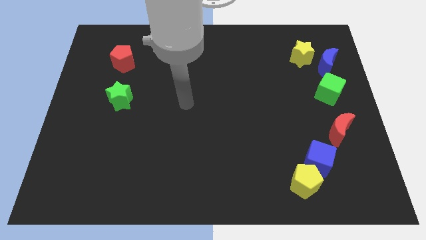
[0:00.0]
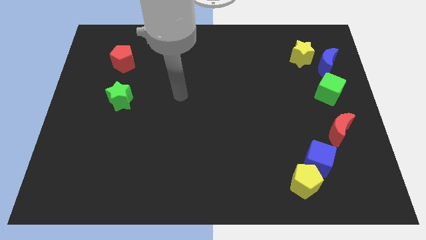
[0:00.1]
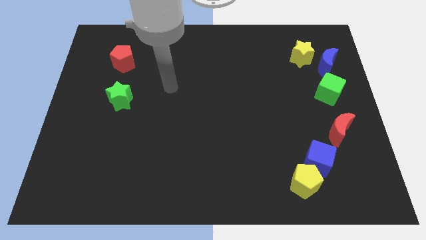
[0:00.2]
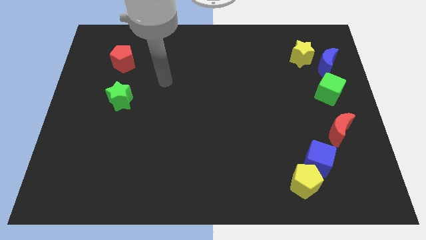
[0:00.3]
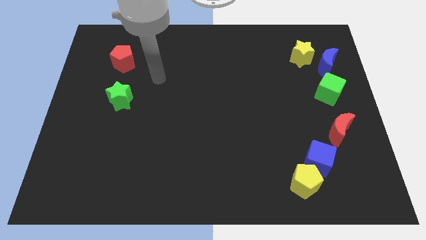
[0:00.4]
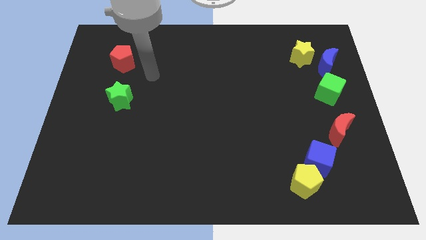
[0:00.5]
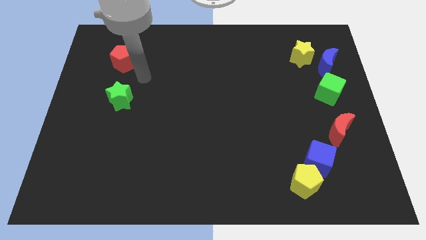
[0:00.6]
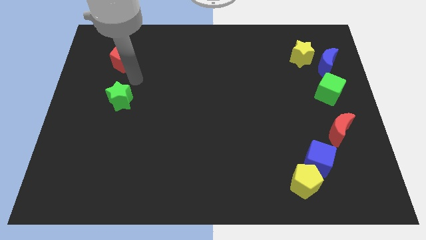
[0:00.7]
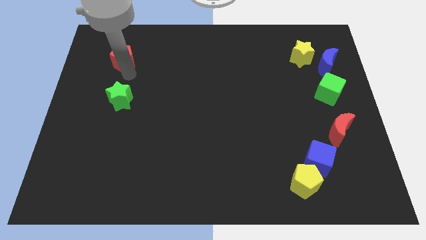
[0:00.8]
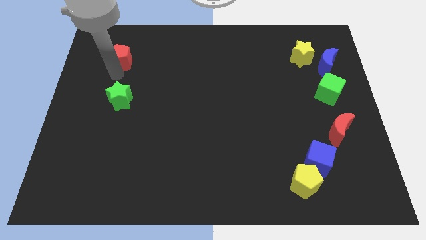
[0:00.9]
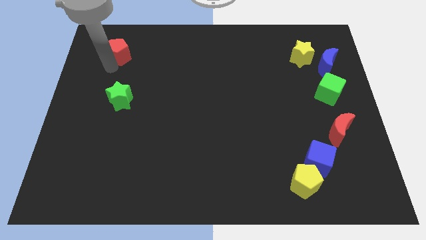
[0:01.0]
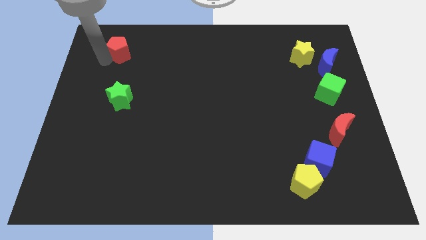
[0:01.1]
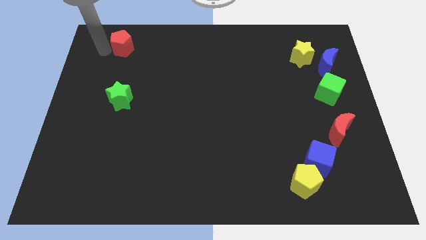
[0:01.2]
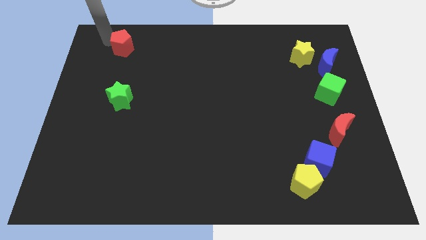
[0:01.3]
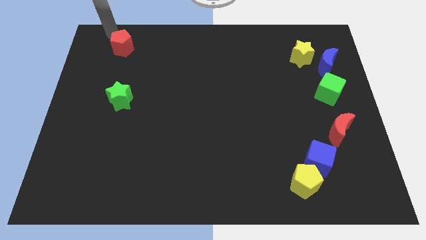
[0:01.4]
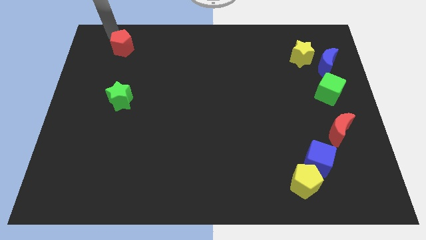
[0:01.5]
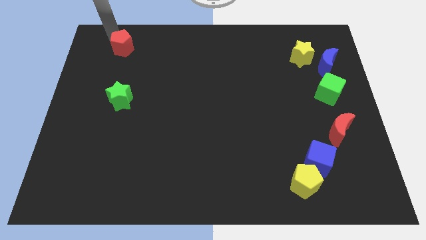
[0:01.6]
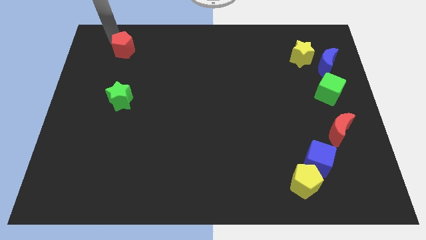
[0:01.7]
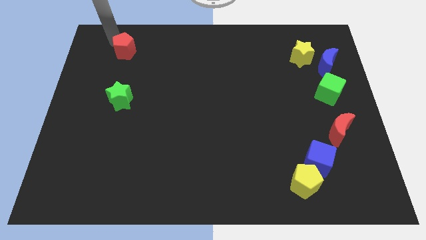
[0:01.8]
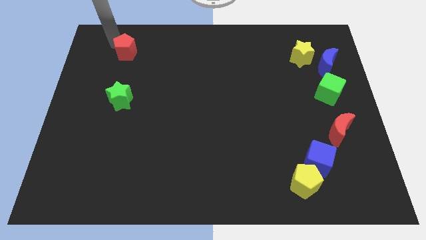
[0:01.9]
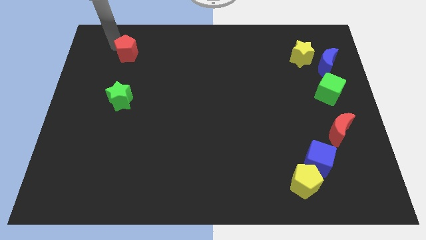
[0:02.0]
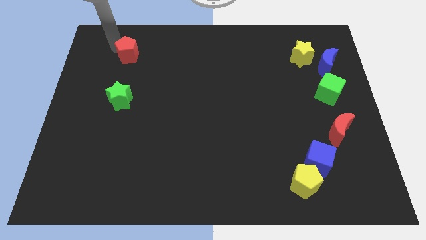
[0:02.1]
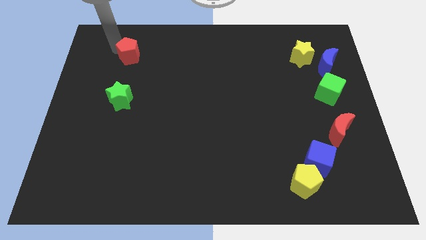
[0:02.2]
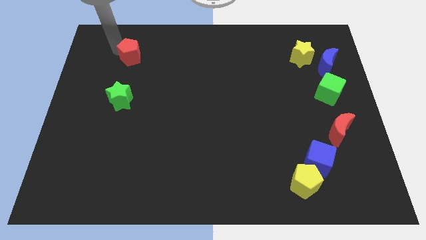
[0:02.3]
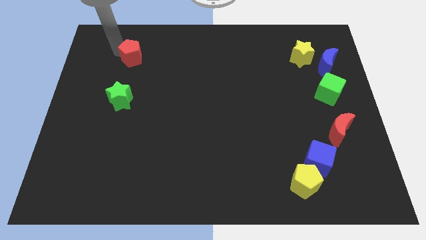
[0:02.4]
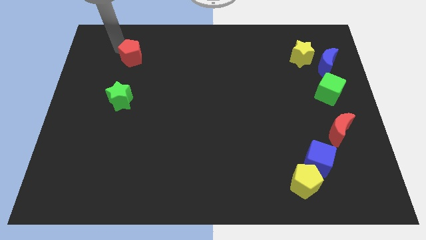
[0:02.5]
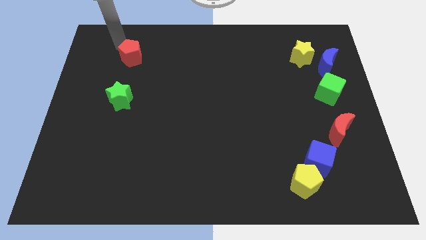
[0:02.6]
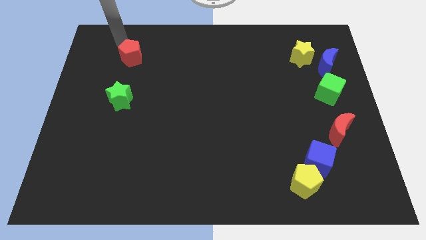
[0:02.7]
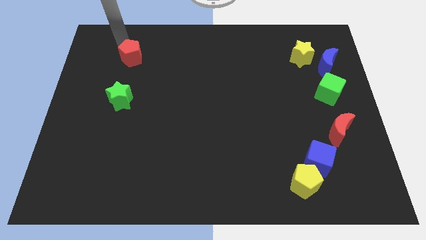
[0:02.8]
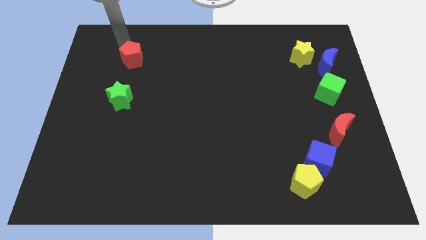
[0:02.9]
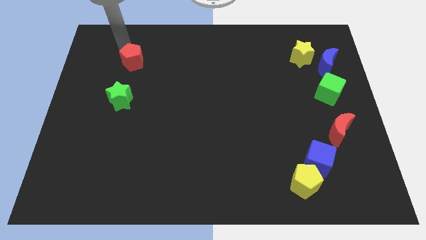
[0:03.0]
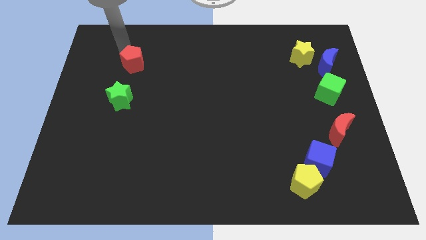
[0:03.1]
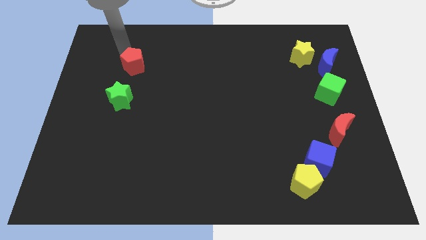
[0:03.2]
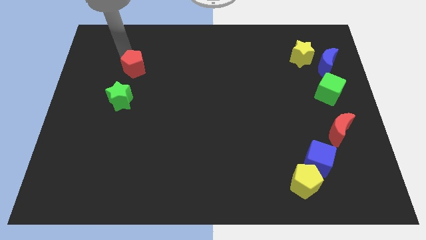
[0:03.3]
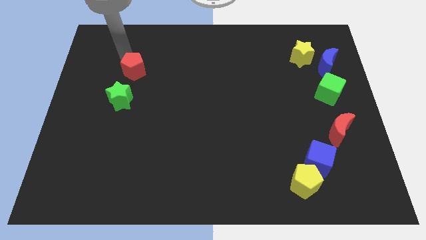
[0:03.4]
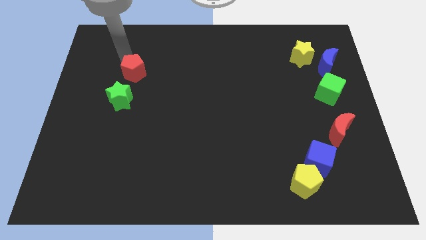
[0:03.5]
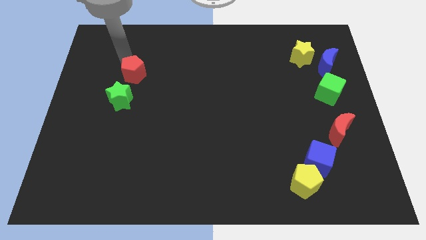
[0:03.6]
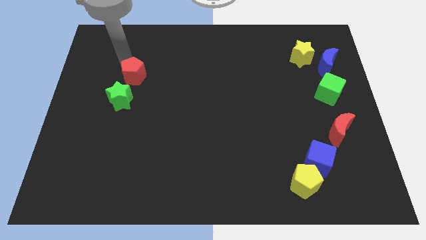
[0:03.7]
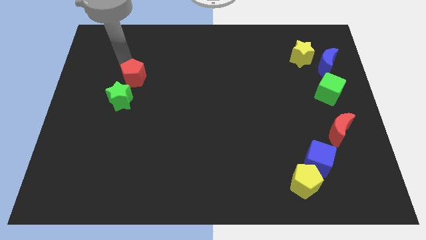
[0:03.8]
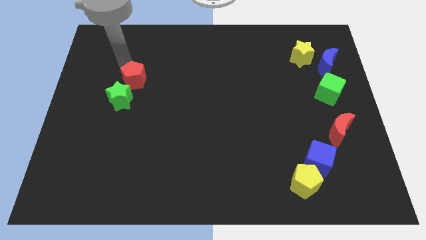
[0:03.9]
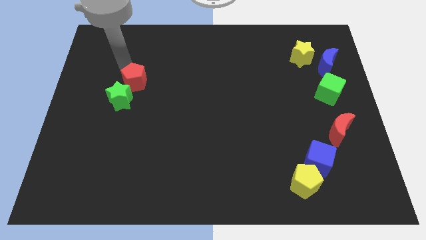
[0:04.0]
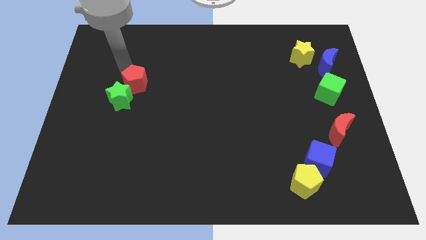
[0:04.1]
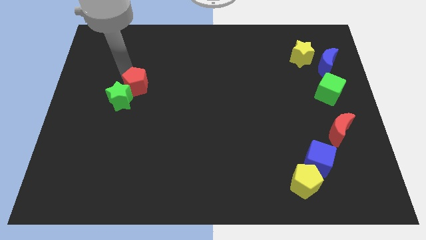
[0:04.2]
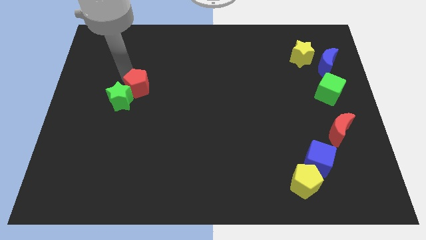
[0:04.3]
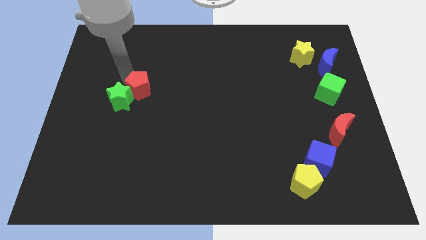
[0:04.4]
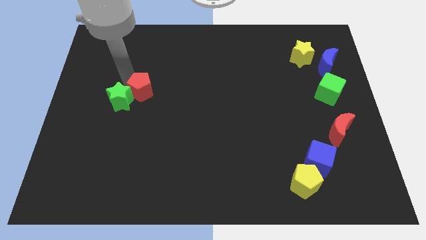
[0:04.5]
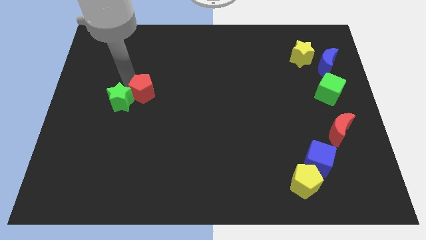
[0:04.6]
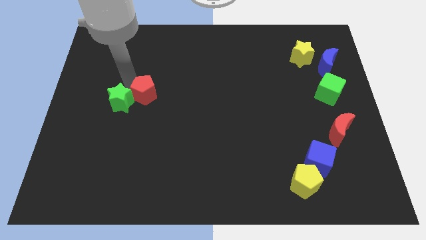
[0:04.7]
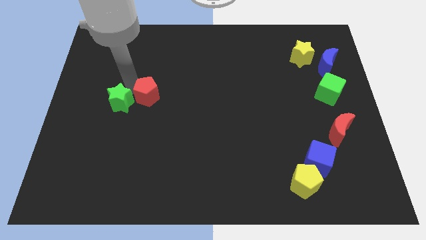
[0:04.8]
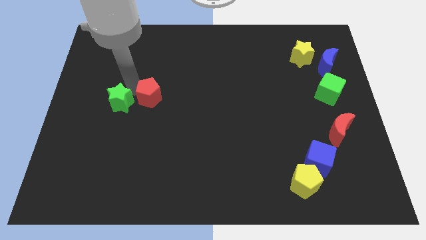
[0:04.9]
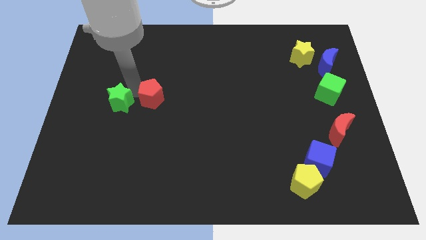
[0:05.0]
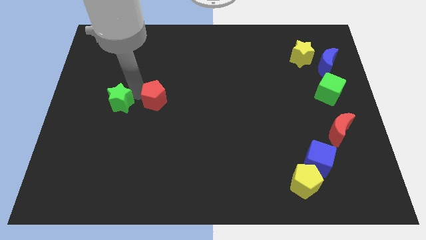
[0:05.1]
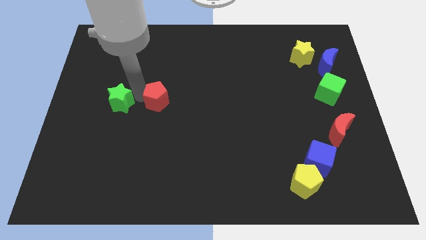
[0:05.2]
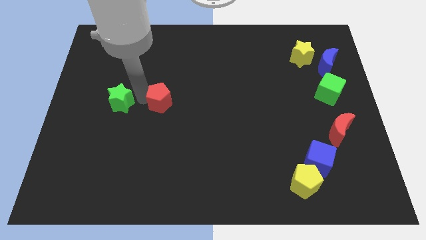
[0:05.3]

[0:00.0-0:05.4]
push the red pentagon to the middle of the board
